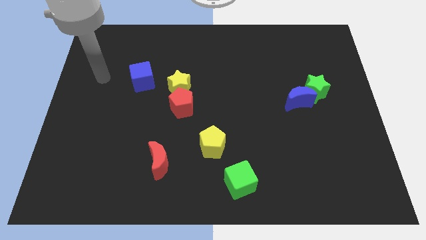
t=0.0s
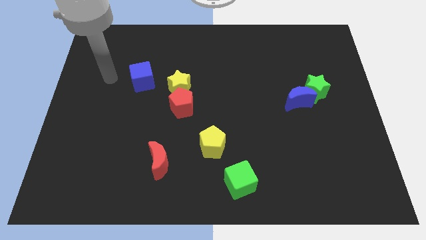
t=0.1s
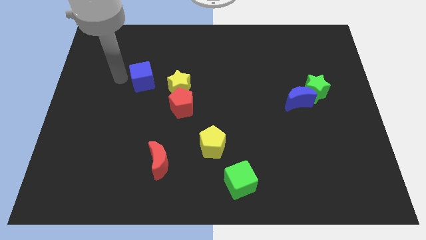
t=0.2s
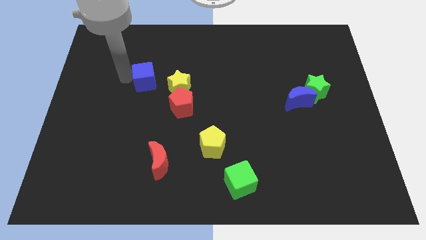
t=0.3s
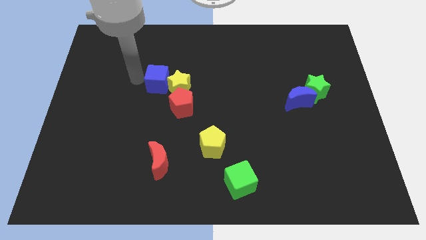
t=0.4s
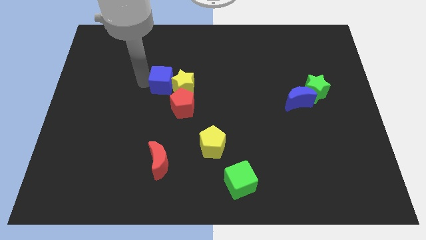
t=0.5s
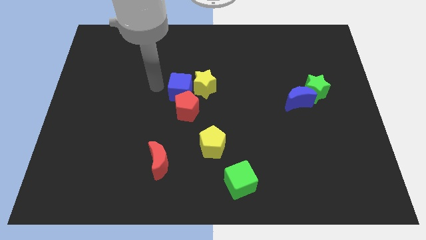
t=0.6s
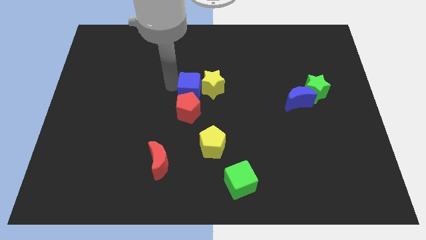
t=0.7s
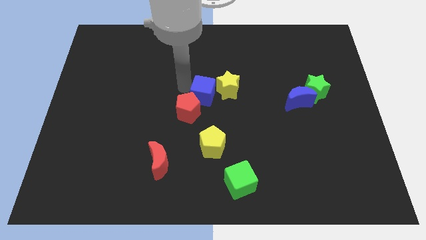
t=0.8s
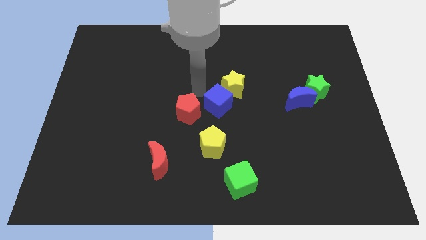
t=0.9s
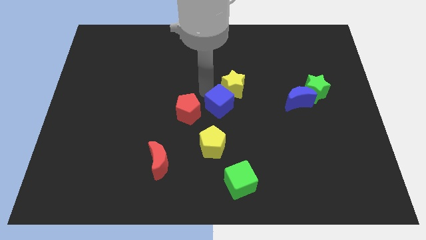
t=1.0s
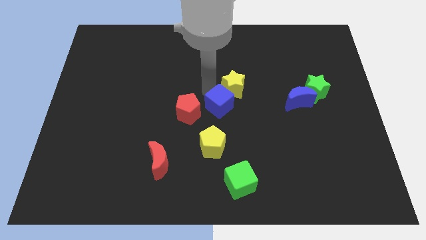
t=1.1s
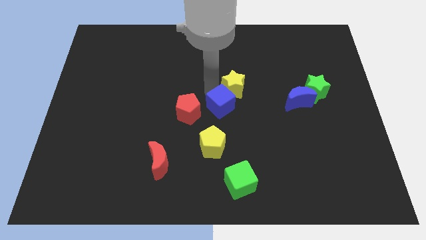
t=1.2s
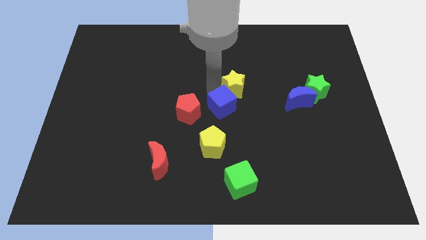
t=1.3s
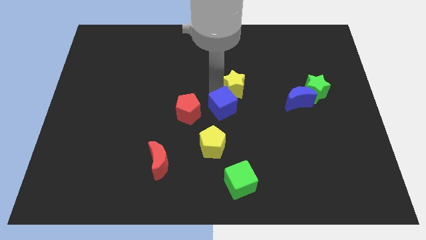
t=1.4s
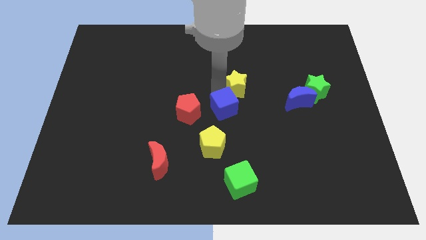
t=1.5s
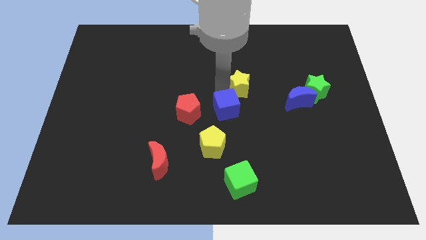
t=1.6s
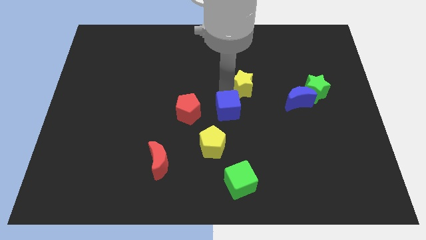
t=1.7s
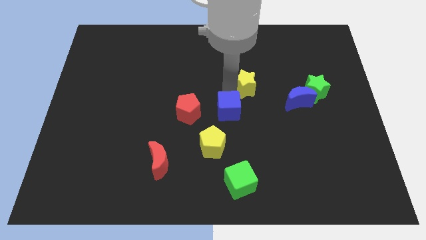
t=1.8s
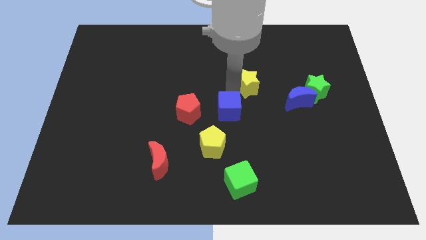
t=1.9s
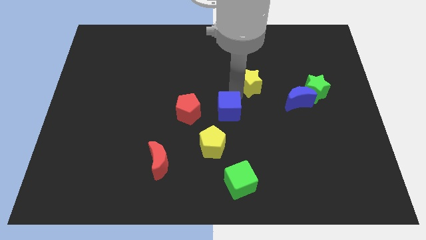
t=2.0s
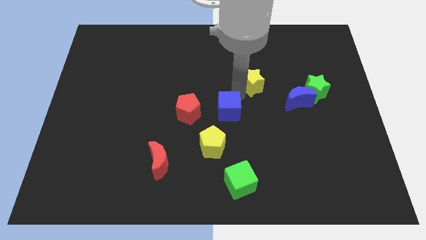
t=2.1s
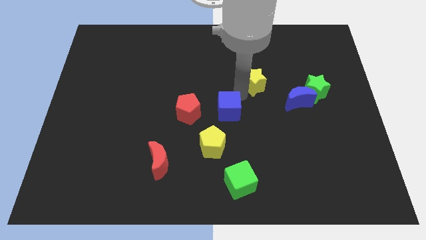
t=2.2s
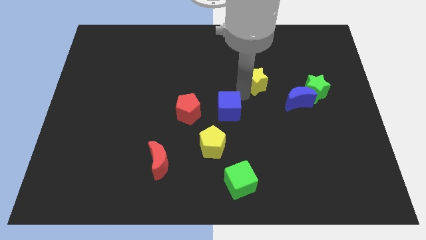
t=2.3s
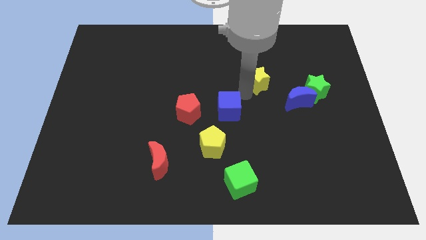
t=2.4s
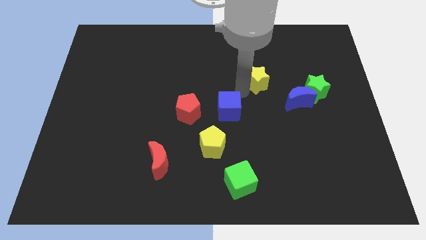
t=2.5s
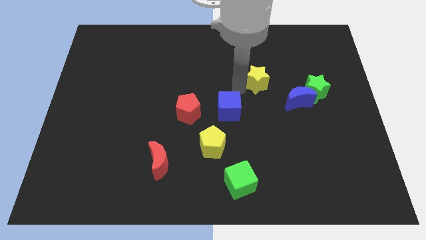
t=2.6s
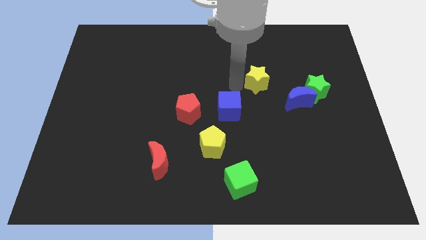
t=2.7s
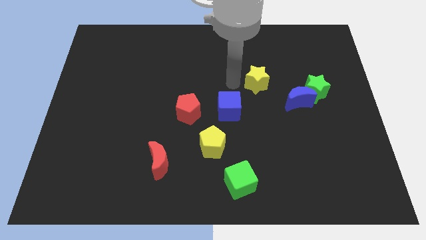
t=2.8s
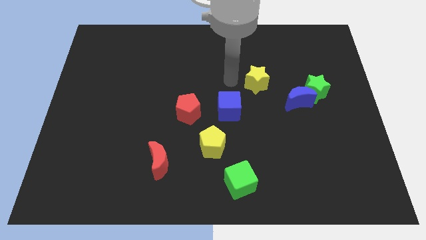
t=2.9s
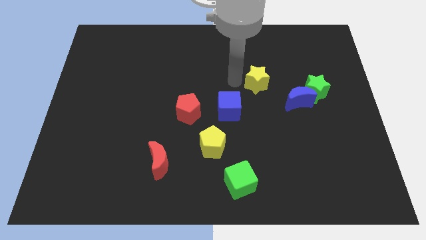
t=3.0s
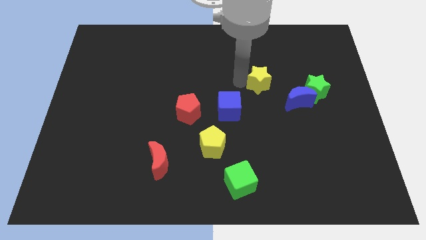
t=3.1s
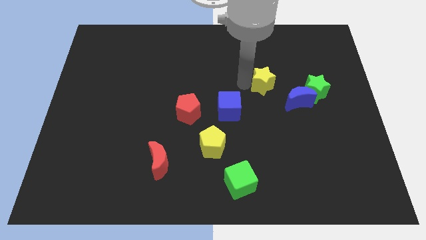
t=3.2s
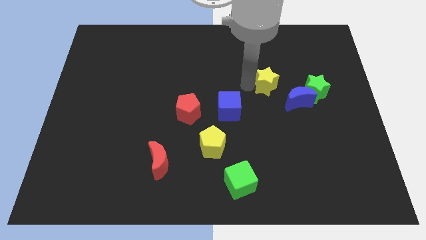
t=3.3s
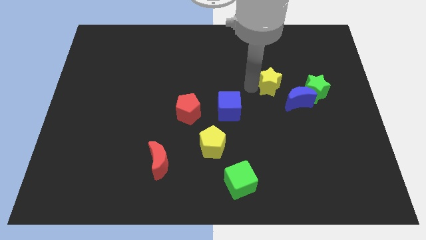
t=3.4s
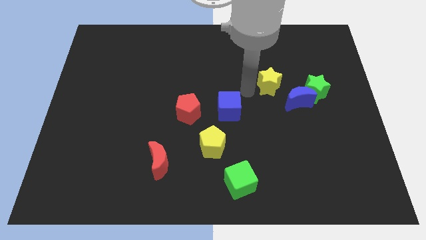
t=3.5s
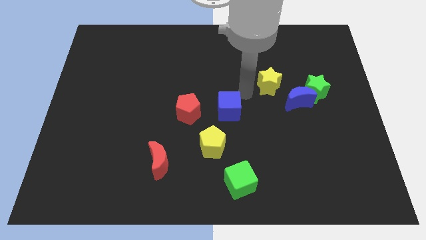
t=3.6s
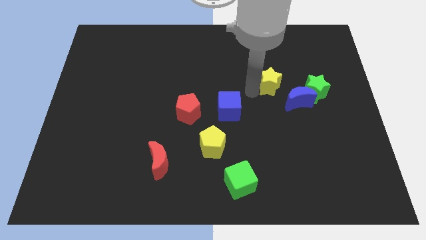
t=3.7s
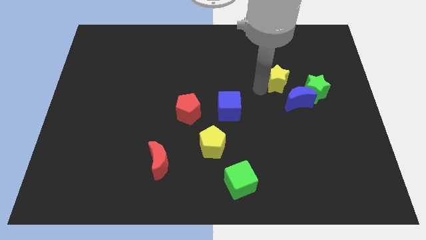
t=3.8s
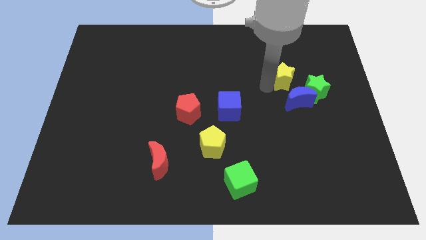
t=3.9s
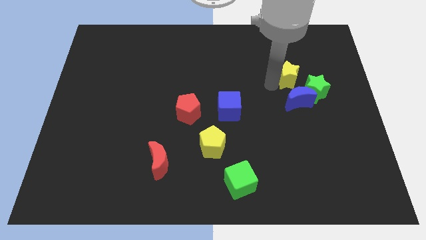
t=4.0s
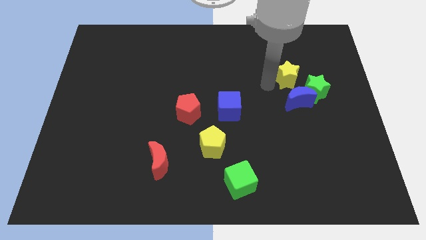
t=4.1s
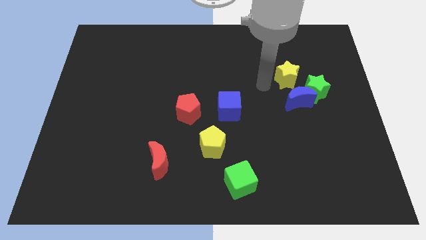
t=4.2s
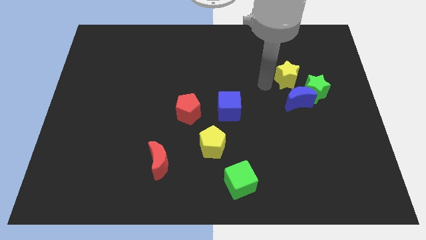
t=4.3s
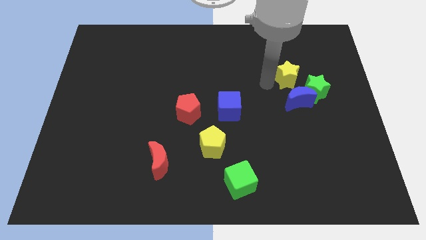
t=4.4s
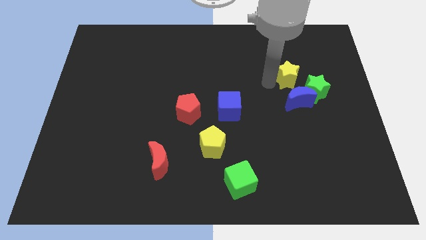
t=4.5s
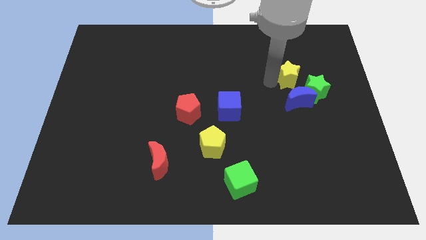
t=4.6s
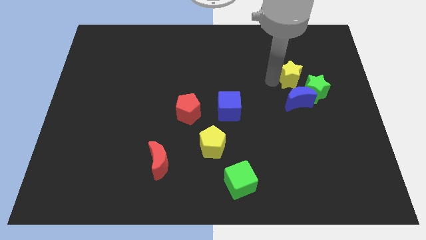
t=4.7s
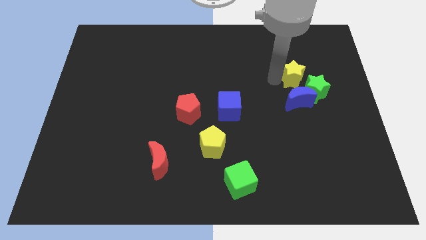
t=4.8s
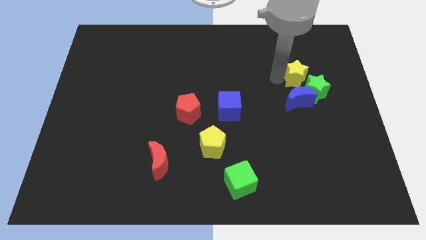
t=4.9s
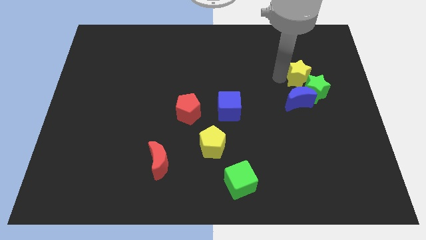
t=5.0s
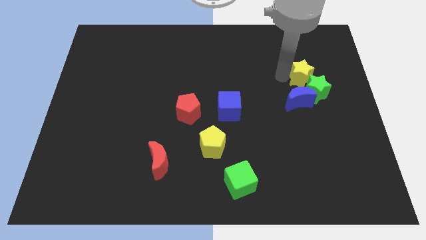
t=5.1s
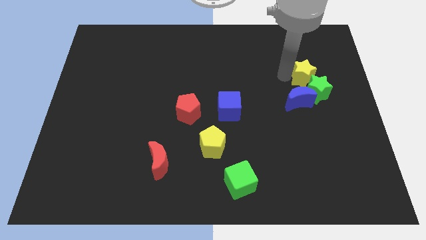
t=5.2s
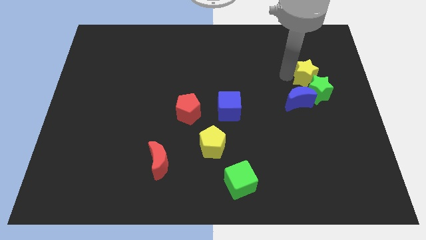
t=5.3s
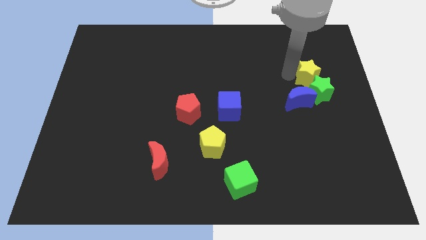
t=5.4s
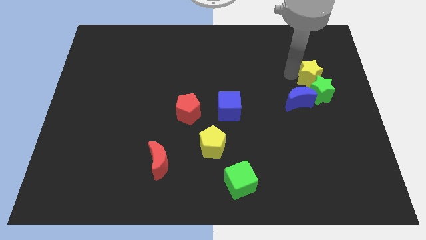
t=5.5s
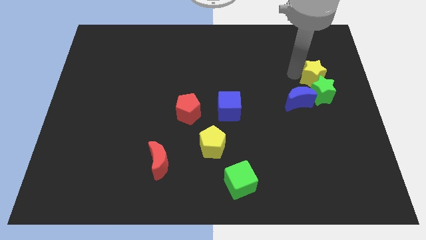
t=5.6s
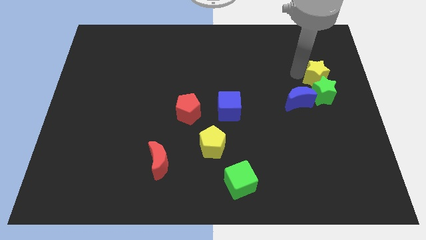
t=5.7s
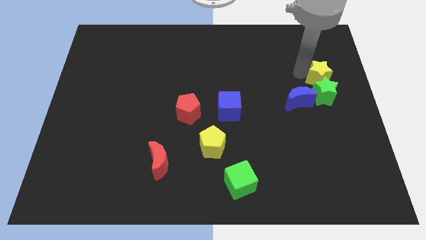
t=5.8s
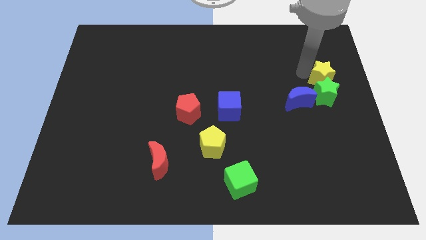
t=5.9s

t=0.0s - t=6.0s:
slide the yellow star to the right side

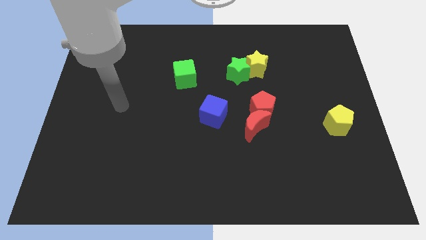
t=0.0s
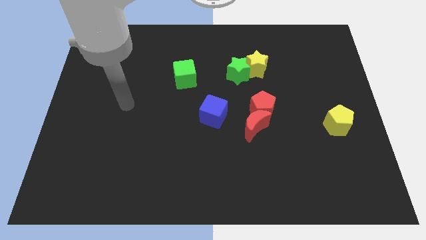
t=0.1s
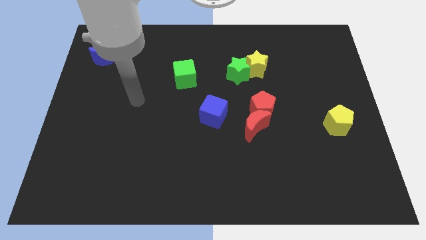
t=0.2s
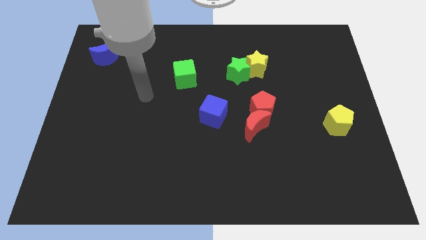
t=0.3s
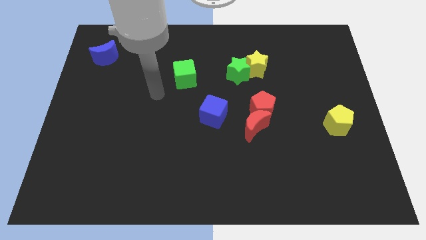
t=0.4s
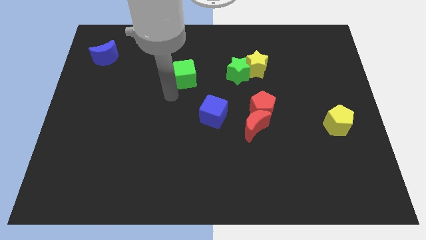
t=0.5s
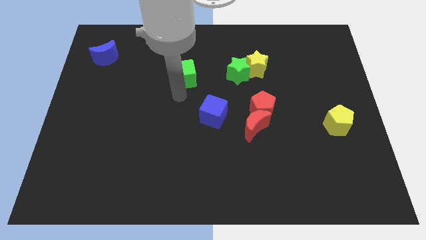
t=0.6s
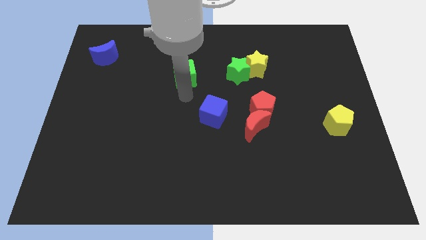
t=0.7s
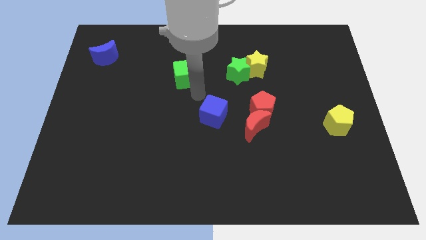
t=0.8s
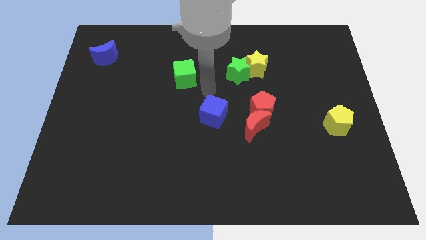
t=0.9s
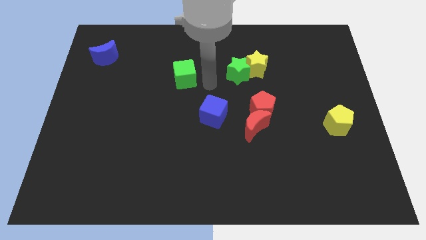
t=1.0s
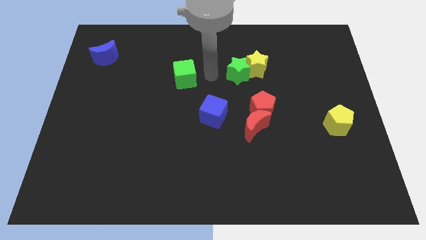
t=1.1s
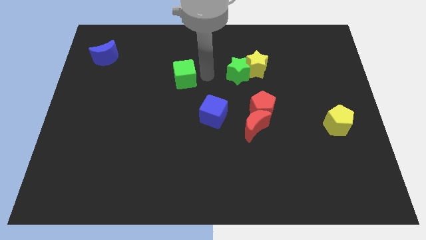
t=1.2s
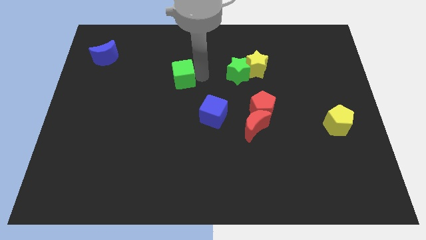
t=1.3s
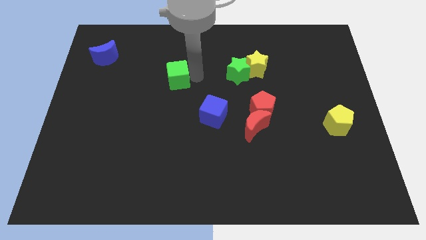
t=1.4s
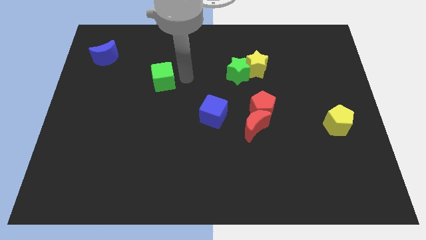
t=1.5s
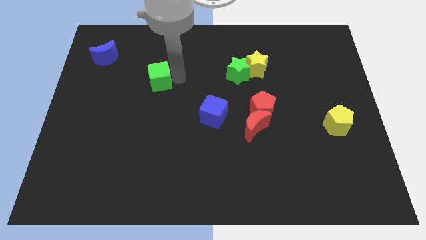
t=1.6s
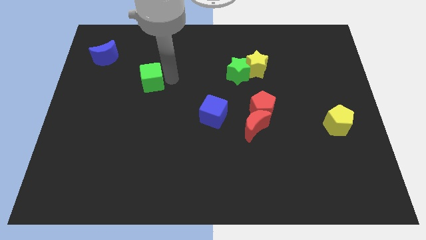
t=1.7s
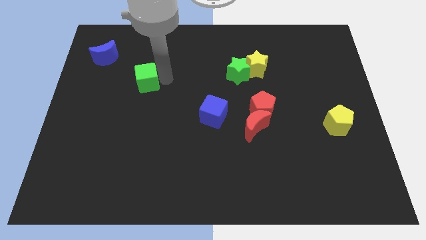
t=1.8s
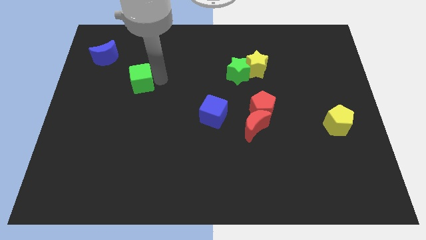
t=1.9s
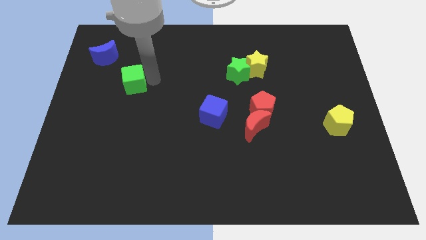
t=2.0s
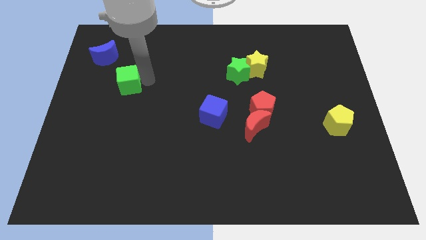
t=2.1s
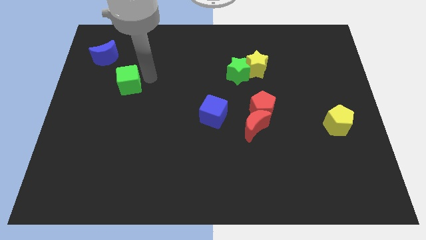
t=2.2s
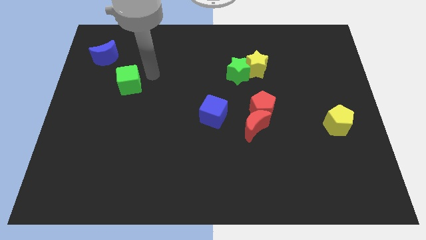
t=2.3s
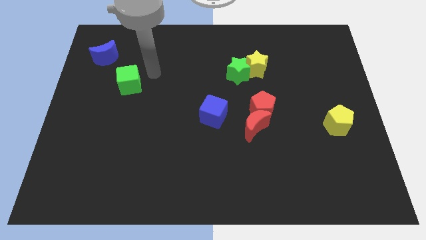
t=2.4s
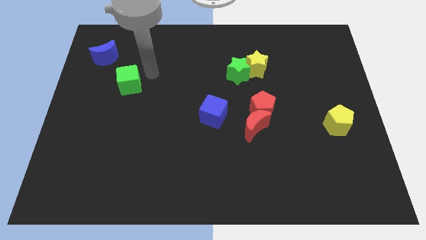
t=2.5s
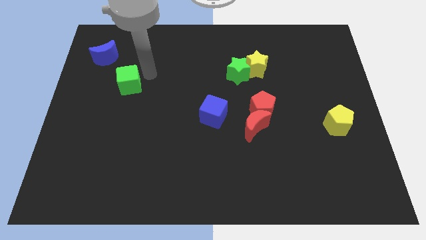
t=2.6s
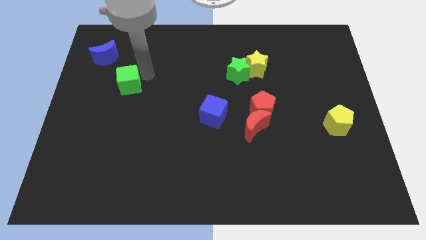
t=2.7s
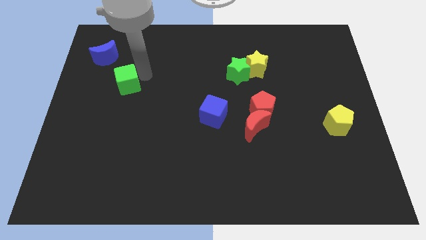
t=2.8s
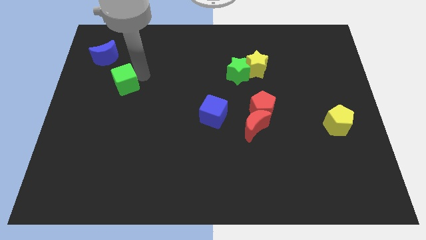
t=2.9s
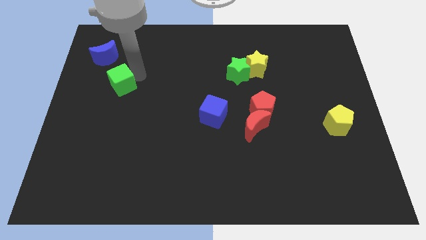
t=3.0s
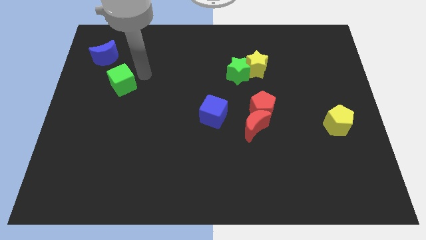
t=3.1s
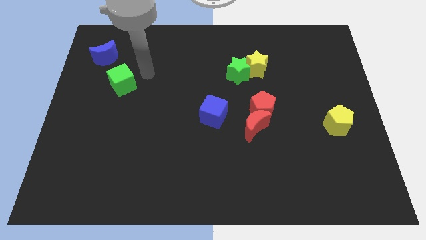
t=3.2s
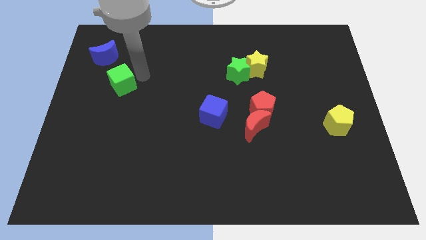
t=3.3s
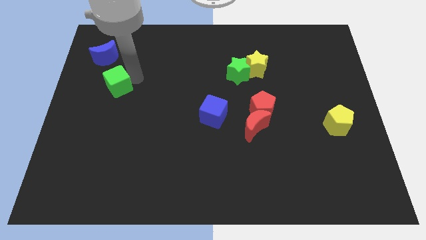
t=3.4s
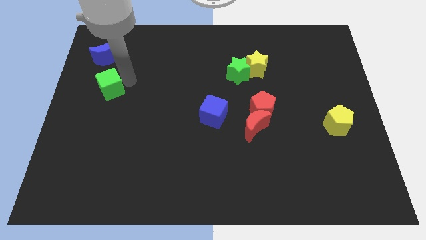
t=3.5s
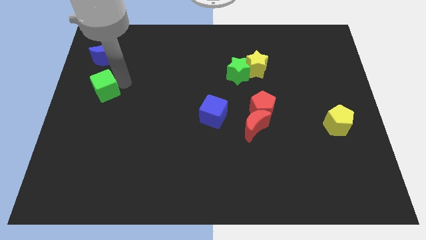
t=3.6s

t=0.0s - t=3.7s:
push the green cube to the center left
